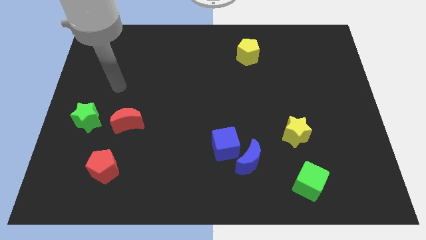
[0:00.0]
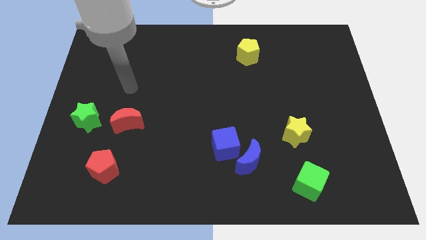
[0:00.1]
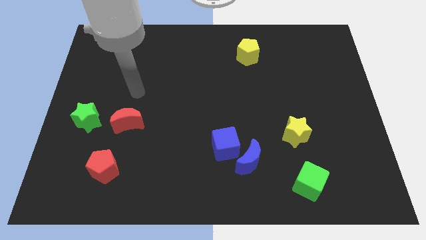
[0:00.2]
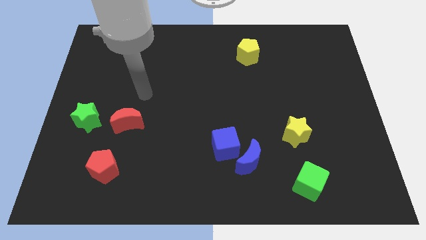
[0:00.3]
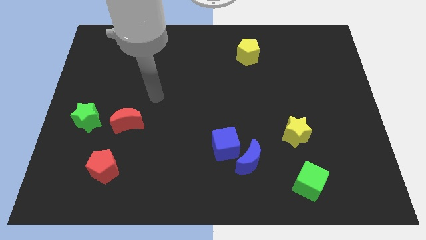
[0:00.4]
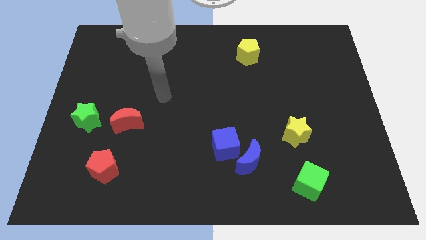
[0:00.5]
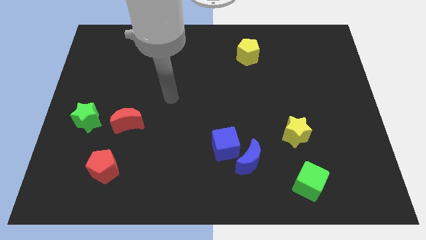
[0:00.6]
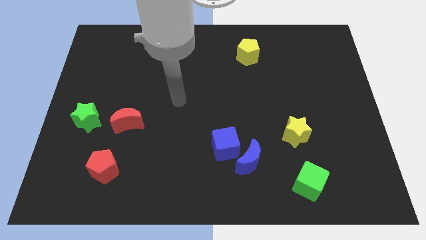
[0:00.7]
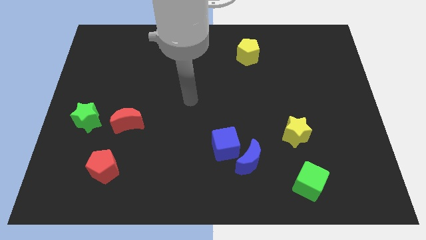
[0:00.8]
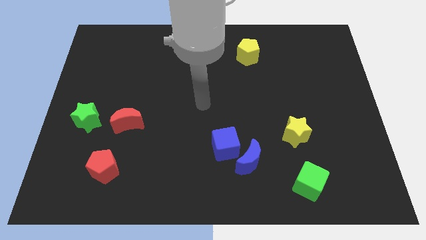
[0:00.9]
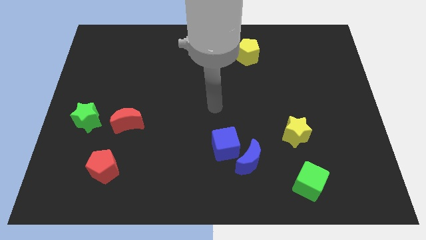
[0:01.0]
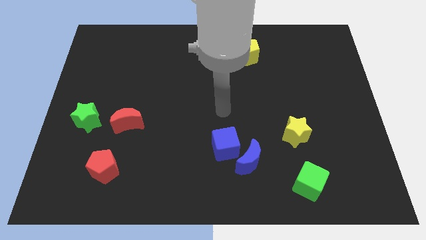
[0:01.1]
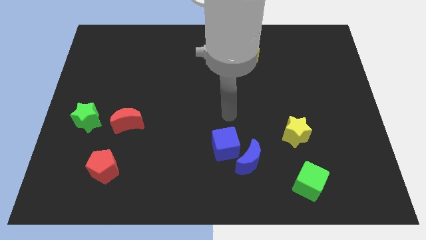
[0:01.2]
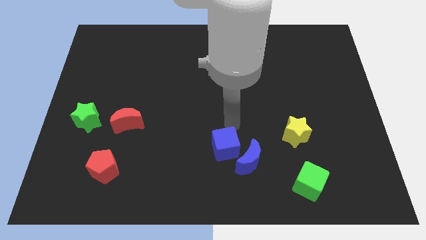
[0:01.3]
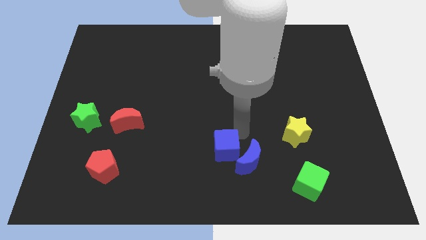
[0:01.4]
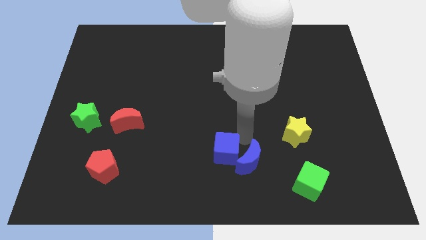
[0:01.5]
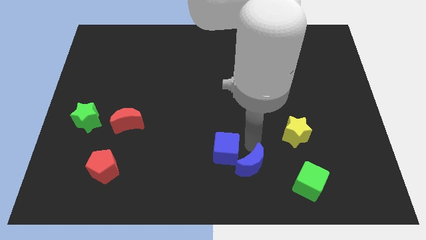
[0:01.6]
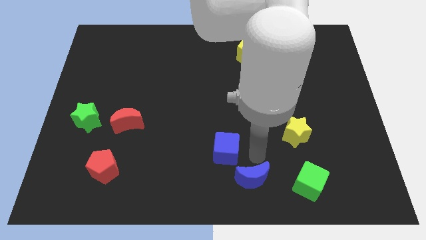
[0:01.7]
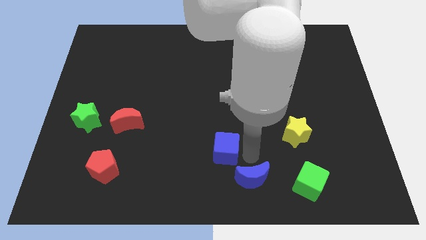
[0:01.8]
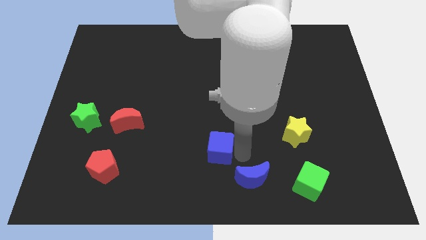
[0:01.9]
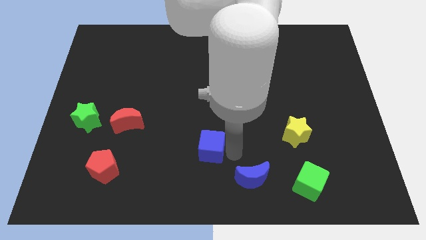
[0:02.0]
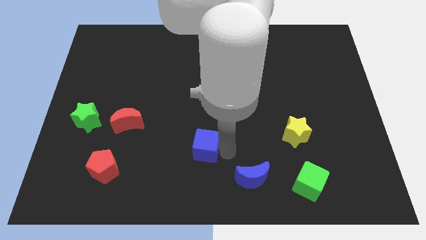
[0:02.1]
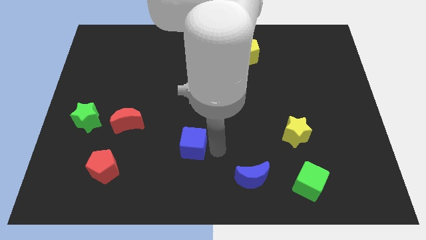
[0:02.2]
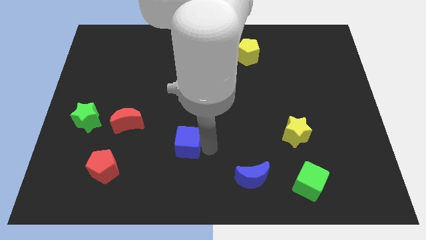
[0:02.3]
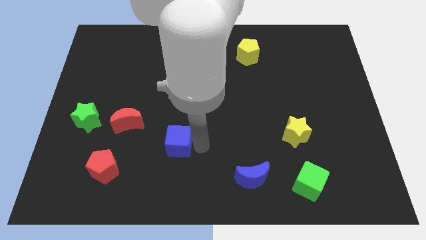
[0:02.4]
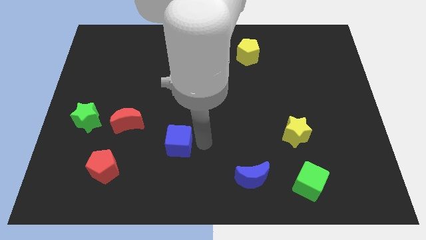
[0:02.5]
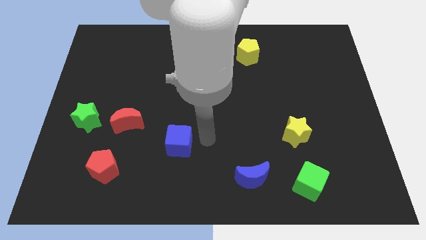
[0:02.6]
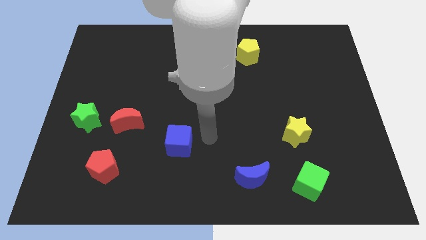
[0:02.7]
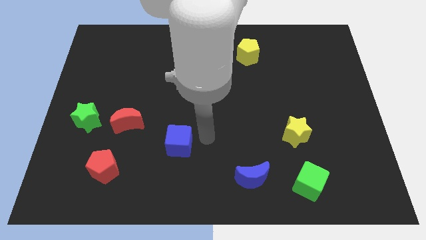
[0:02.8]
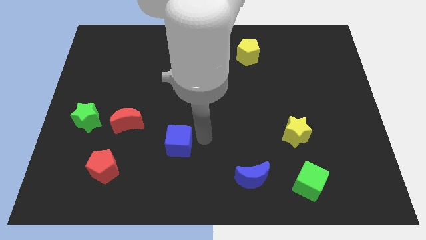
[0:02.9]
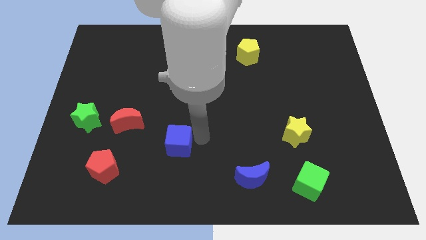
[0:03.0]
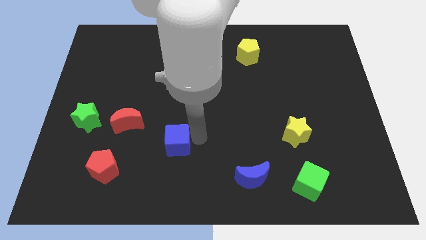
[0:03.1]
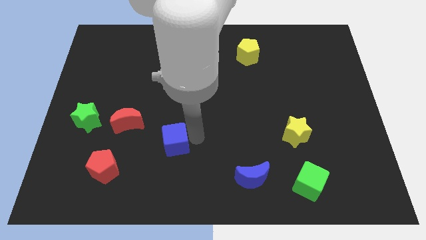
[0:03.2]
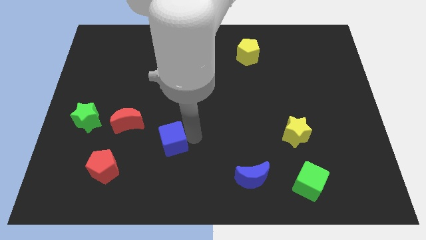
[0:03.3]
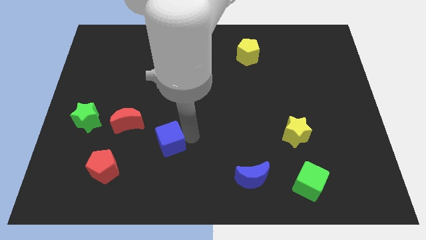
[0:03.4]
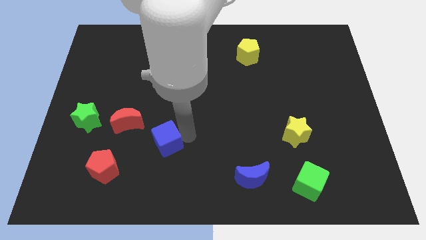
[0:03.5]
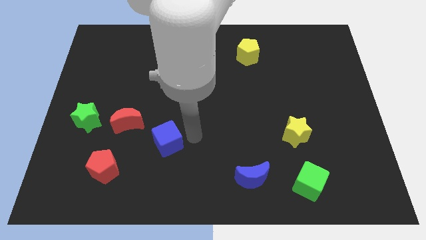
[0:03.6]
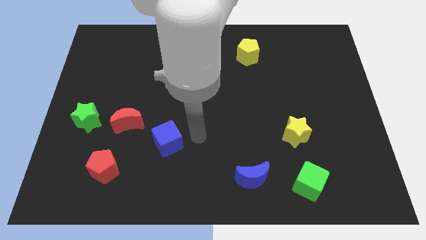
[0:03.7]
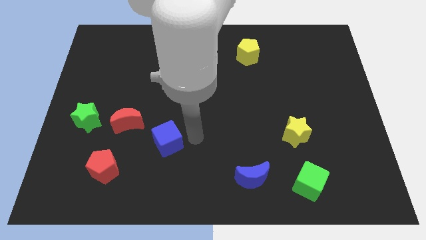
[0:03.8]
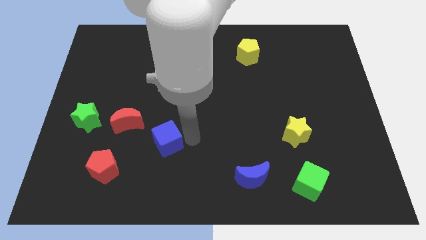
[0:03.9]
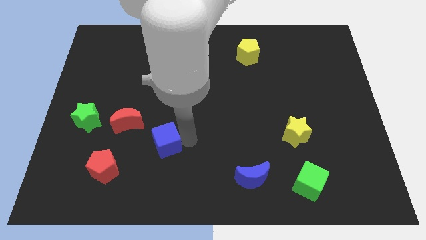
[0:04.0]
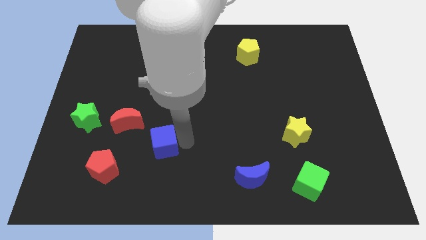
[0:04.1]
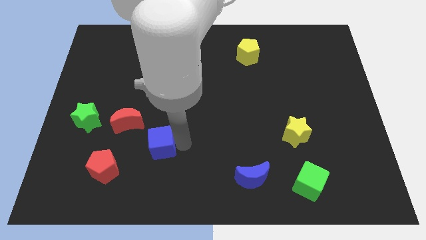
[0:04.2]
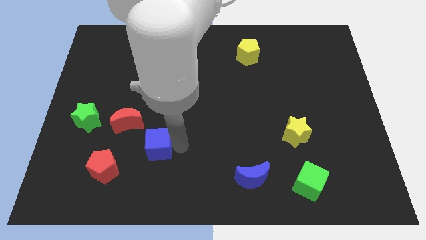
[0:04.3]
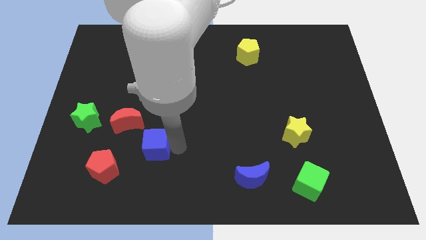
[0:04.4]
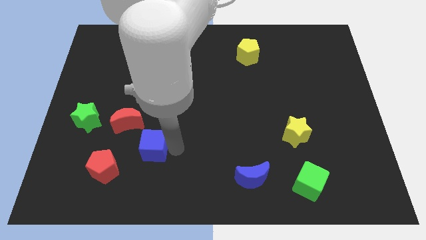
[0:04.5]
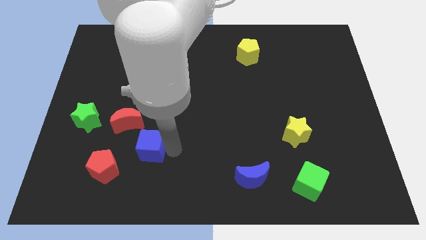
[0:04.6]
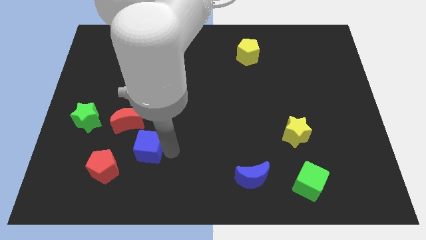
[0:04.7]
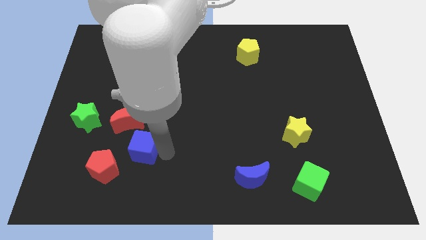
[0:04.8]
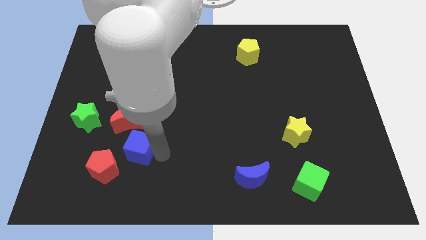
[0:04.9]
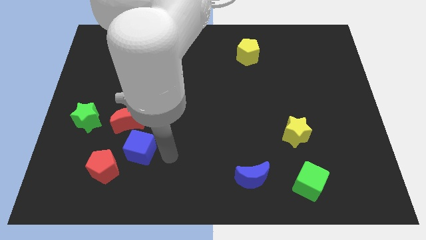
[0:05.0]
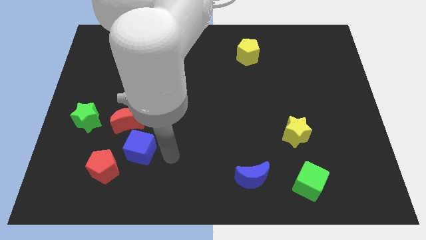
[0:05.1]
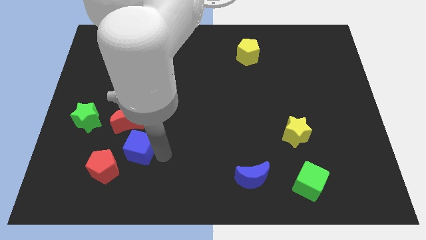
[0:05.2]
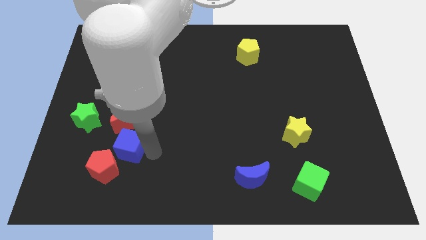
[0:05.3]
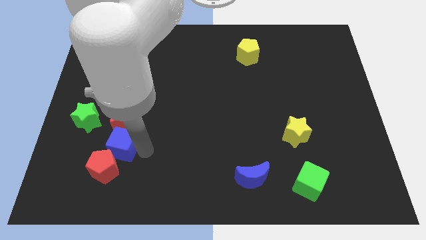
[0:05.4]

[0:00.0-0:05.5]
push the blue cube diagonally down and to the left of the red moon

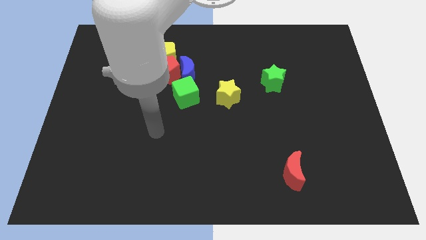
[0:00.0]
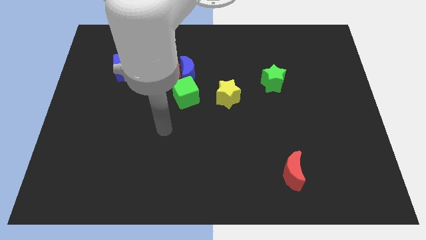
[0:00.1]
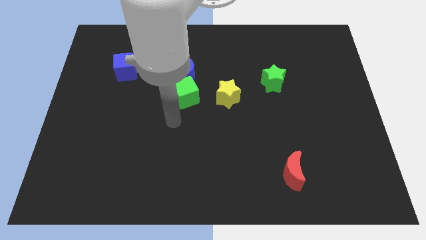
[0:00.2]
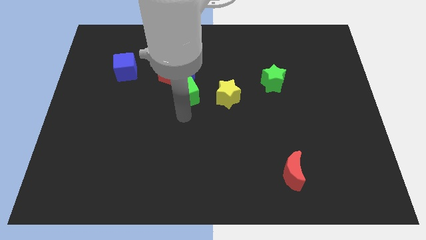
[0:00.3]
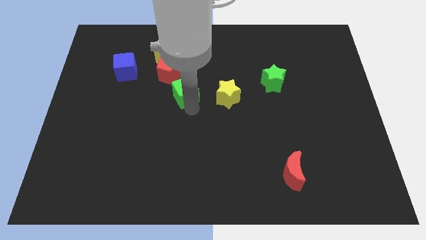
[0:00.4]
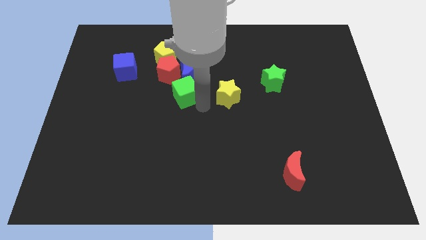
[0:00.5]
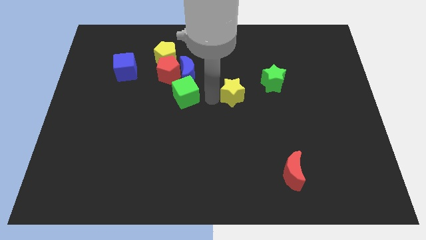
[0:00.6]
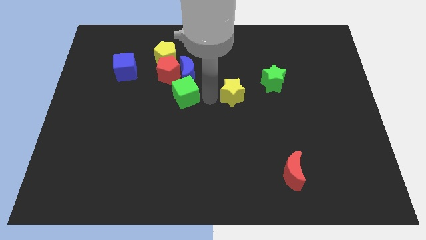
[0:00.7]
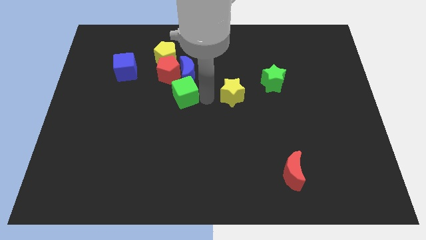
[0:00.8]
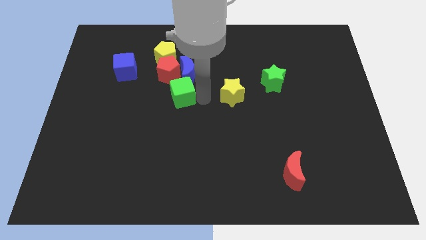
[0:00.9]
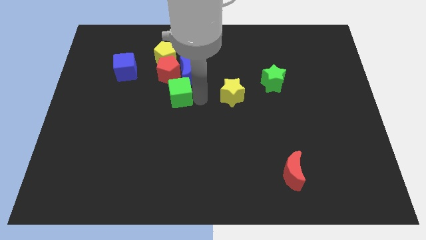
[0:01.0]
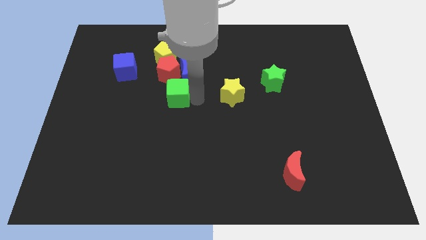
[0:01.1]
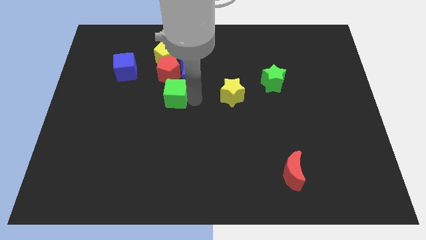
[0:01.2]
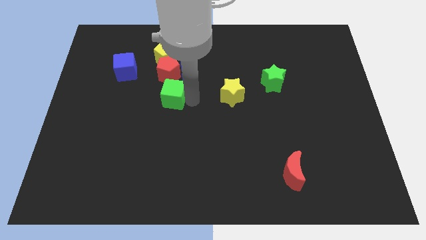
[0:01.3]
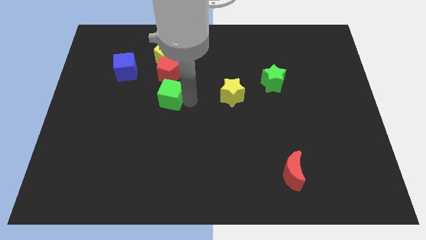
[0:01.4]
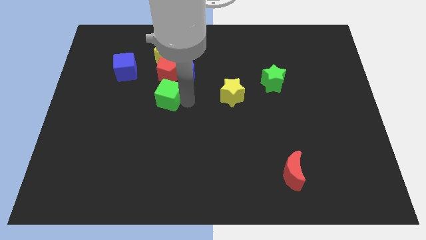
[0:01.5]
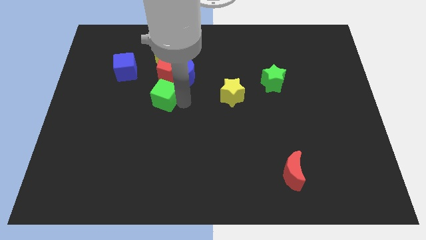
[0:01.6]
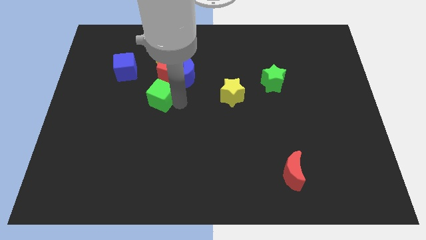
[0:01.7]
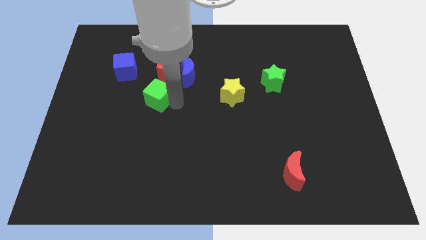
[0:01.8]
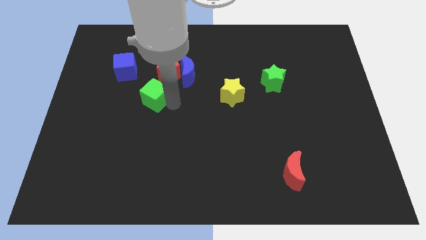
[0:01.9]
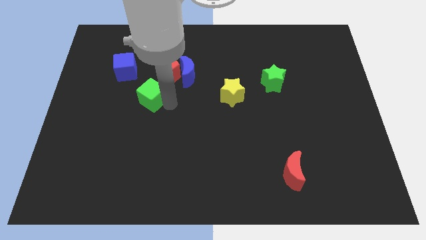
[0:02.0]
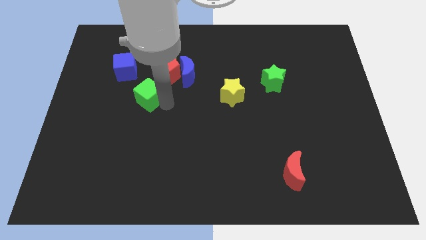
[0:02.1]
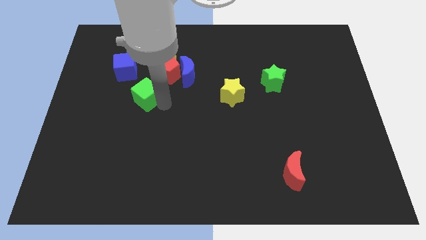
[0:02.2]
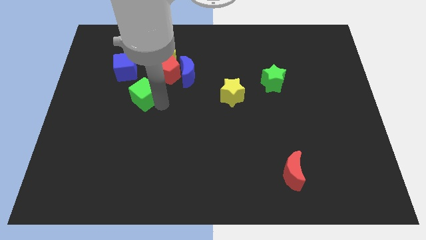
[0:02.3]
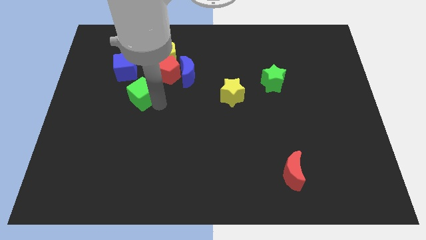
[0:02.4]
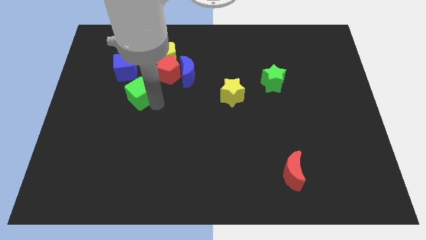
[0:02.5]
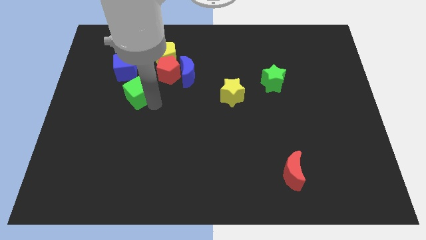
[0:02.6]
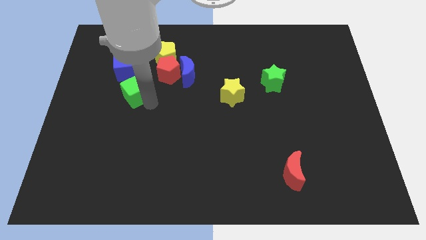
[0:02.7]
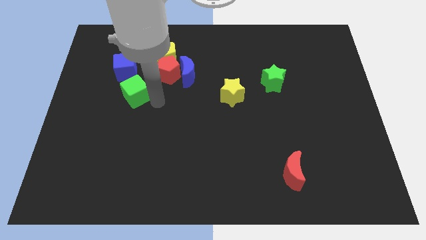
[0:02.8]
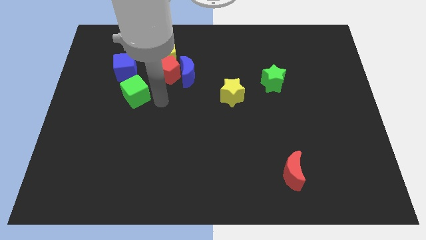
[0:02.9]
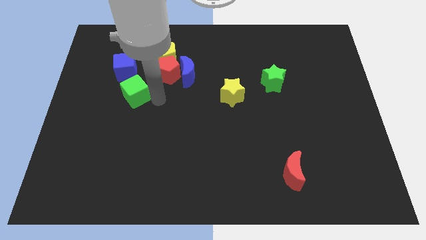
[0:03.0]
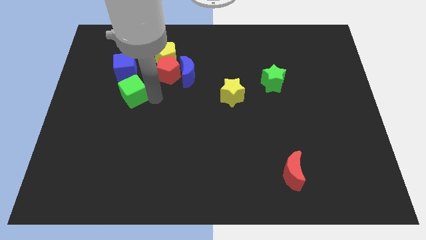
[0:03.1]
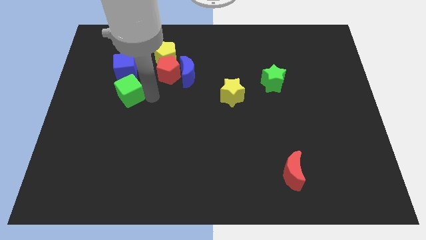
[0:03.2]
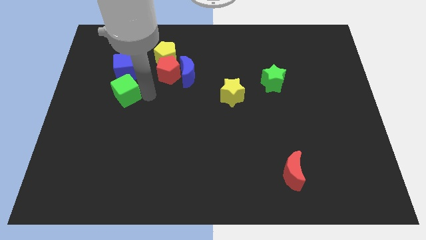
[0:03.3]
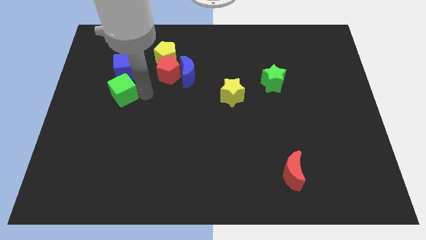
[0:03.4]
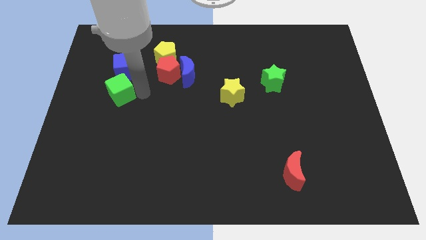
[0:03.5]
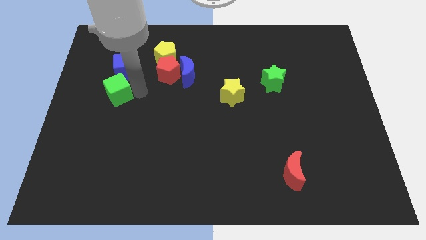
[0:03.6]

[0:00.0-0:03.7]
move the green cube to the bottom left side of the blue cube
